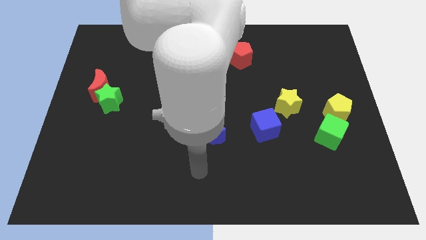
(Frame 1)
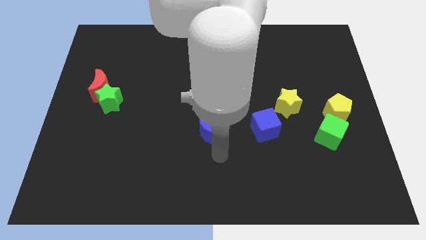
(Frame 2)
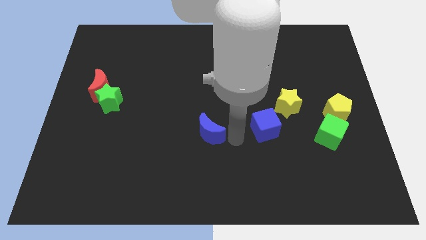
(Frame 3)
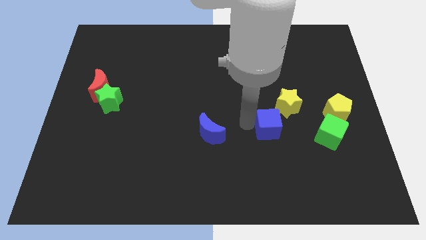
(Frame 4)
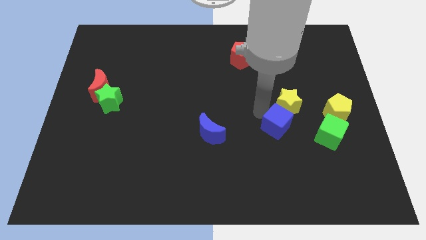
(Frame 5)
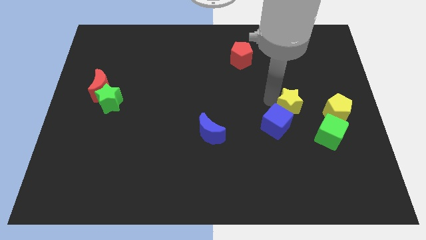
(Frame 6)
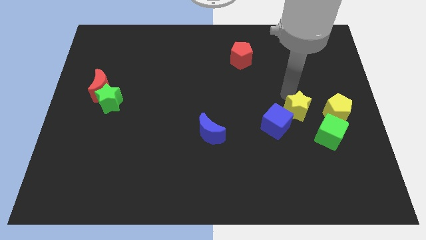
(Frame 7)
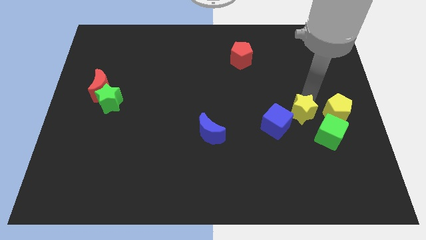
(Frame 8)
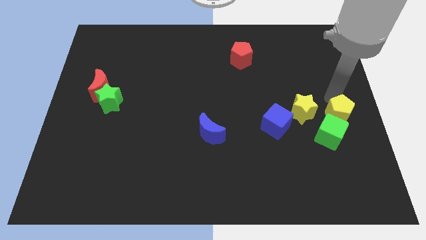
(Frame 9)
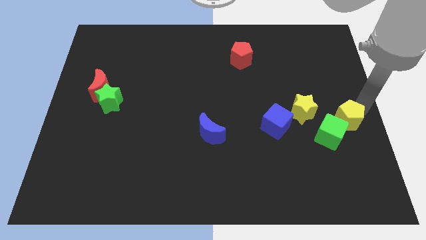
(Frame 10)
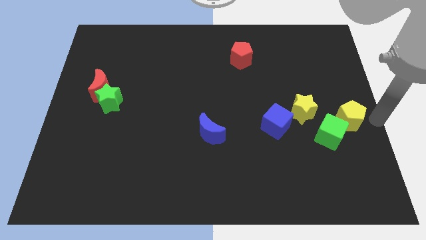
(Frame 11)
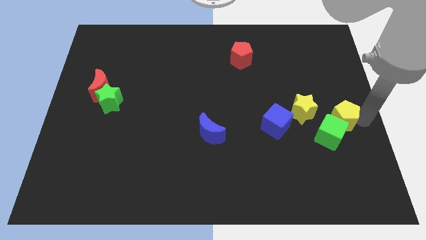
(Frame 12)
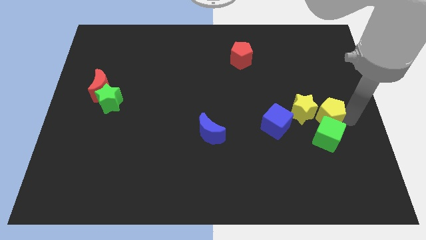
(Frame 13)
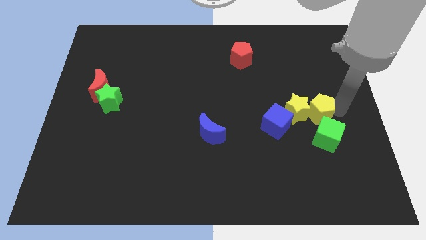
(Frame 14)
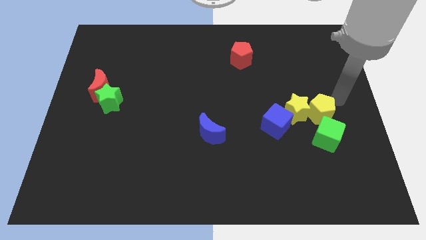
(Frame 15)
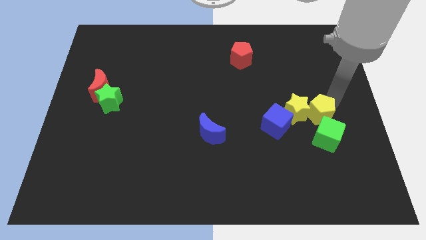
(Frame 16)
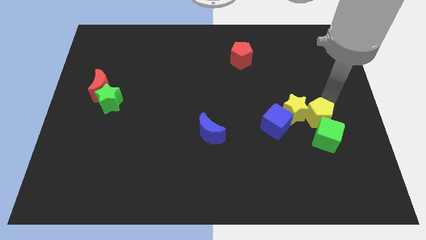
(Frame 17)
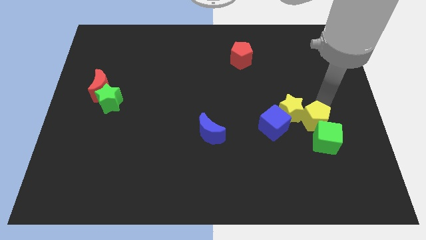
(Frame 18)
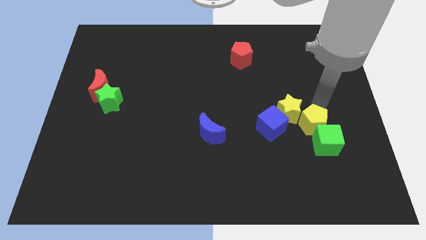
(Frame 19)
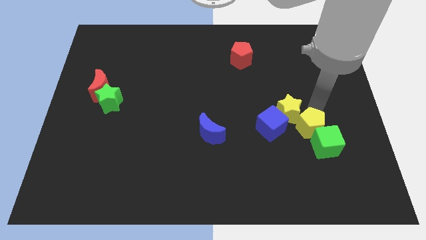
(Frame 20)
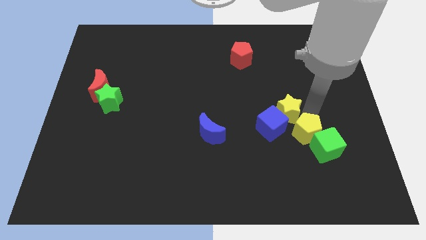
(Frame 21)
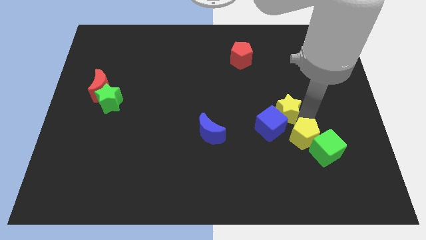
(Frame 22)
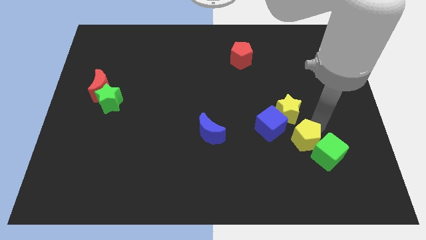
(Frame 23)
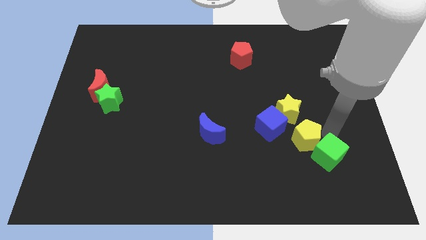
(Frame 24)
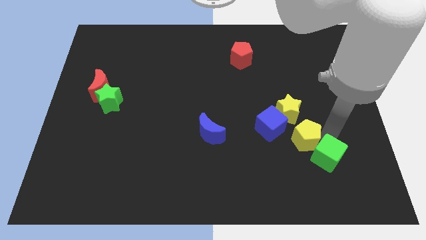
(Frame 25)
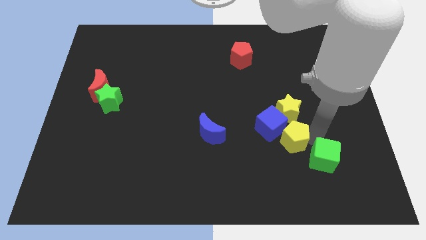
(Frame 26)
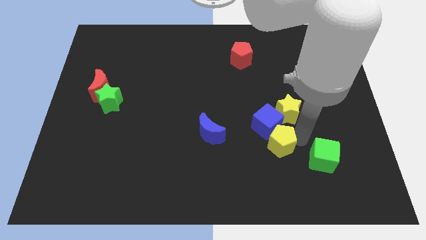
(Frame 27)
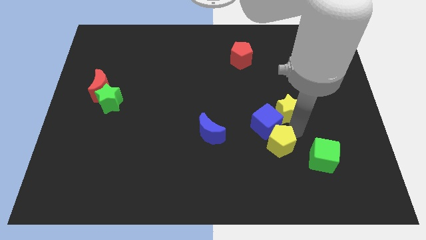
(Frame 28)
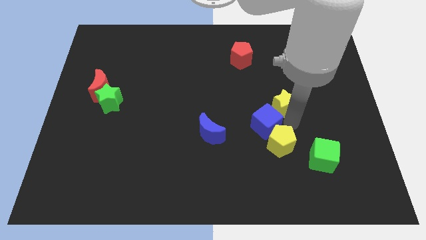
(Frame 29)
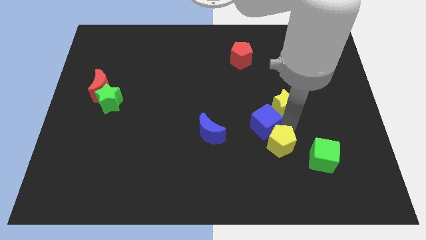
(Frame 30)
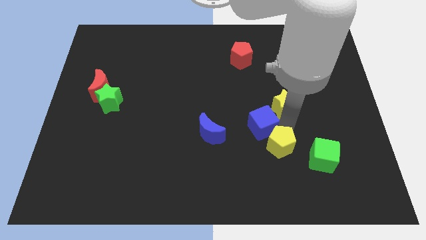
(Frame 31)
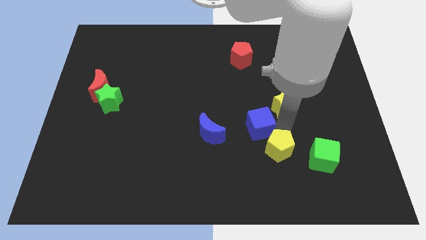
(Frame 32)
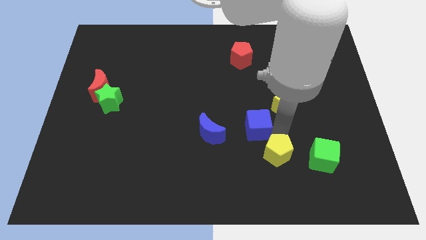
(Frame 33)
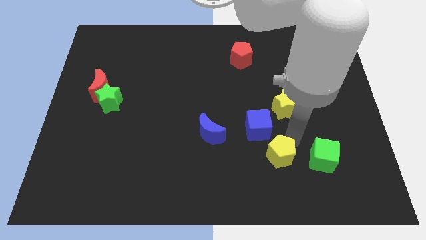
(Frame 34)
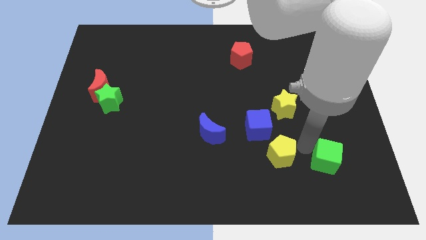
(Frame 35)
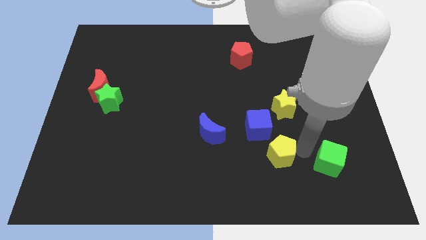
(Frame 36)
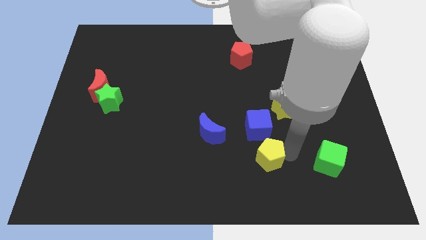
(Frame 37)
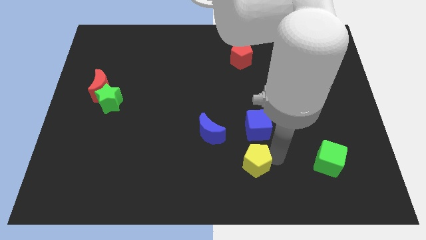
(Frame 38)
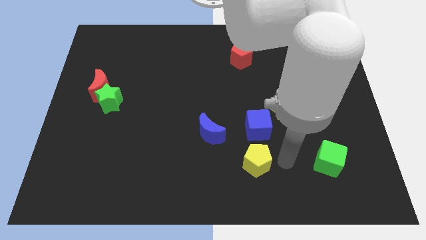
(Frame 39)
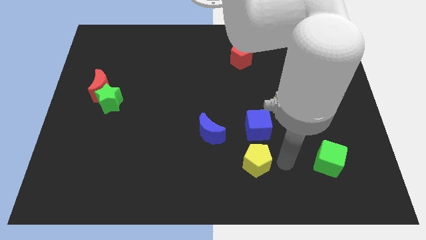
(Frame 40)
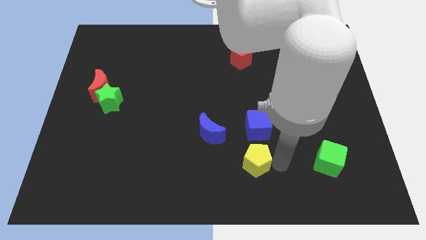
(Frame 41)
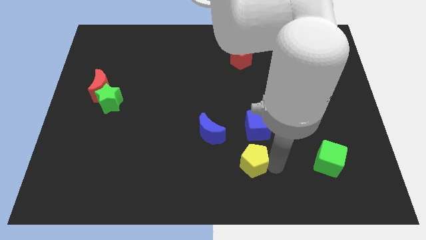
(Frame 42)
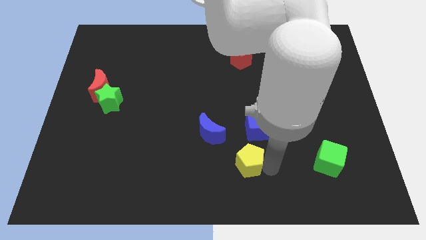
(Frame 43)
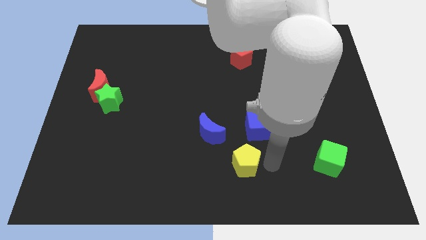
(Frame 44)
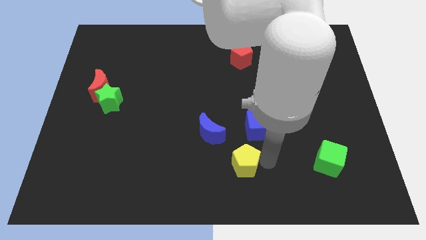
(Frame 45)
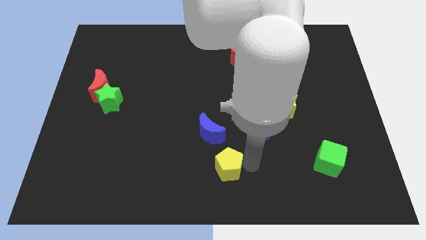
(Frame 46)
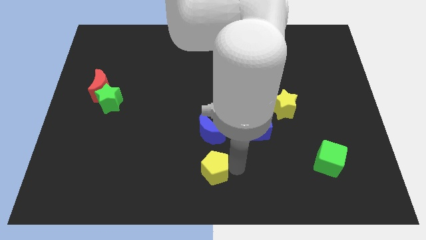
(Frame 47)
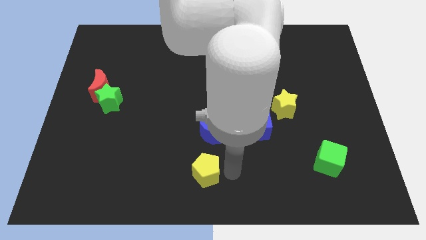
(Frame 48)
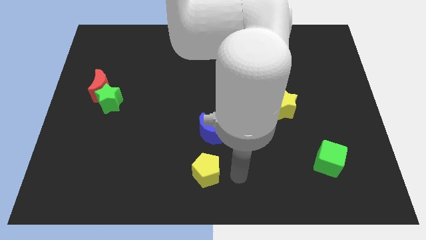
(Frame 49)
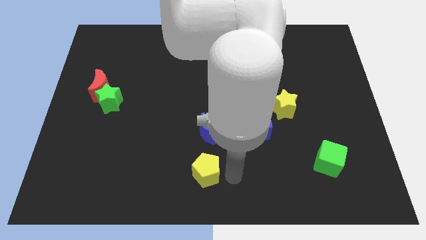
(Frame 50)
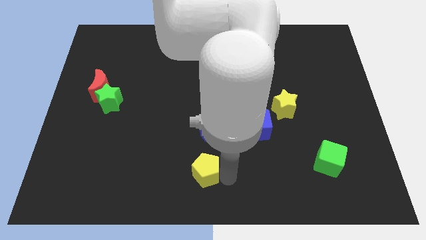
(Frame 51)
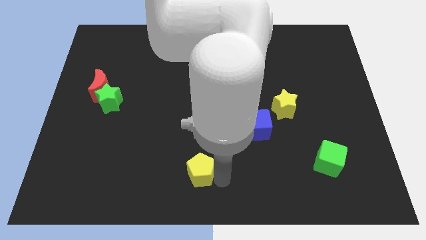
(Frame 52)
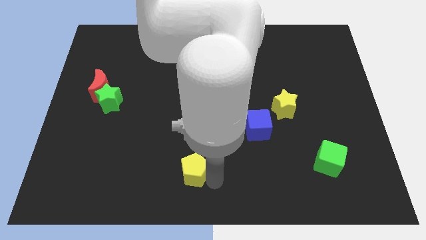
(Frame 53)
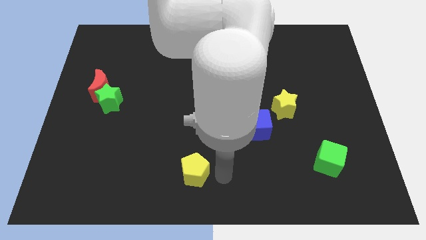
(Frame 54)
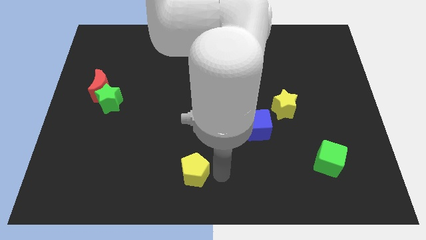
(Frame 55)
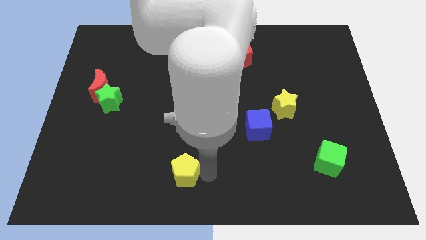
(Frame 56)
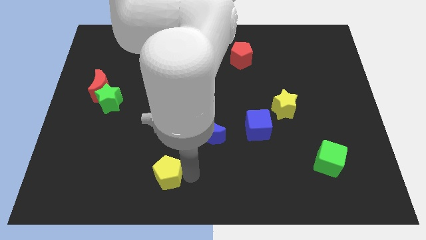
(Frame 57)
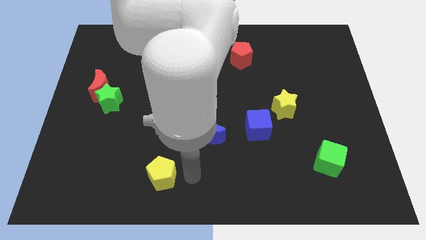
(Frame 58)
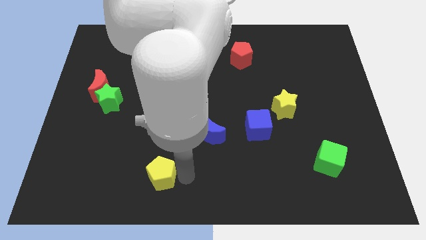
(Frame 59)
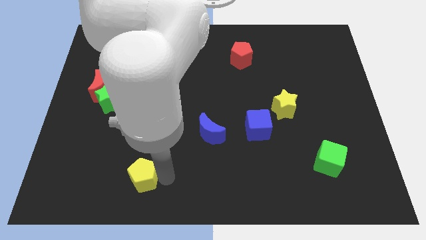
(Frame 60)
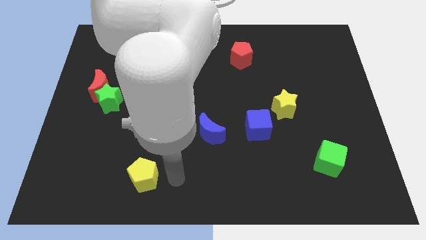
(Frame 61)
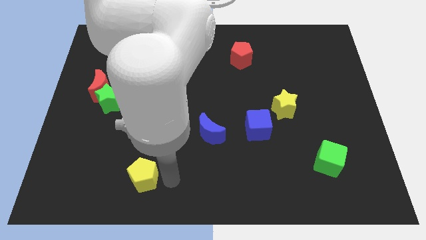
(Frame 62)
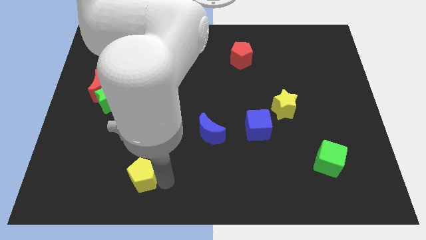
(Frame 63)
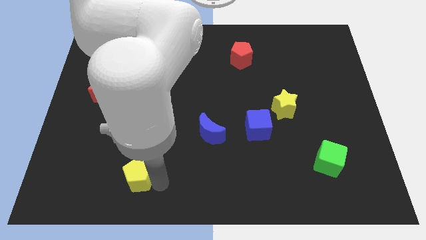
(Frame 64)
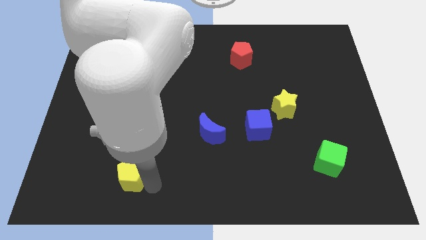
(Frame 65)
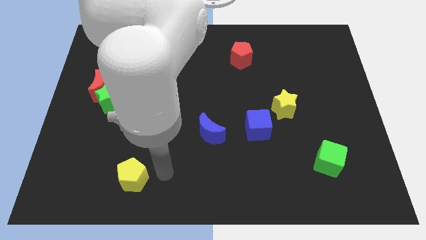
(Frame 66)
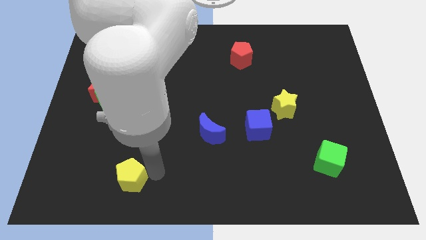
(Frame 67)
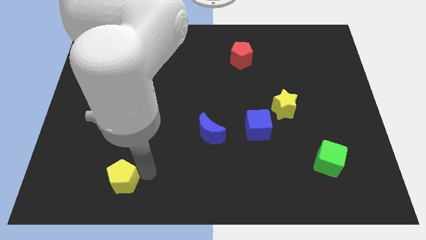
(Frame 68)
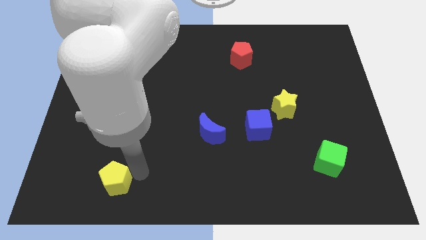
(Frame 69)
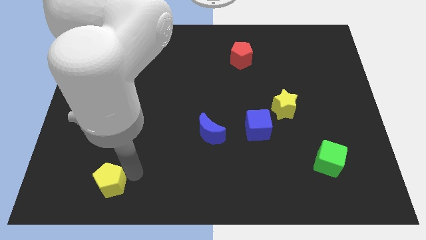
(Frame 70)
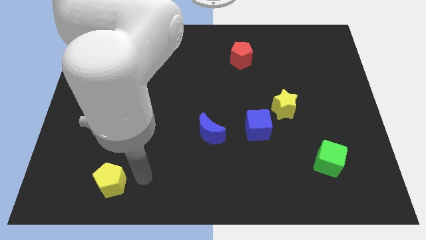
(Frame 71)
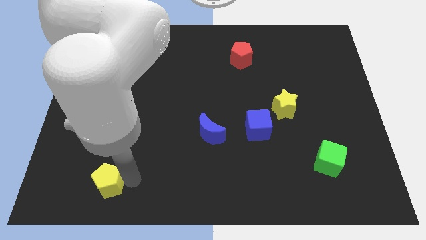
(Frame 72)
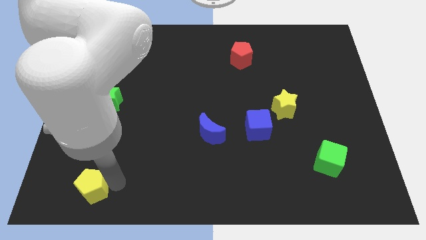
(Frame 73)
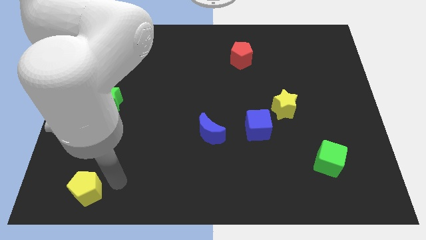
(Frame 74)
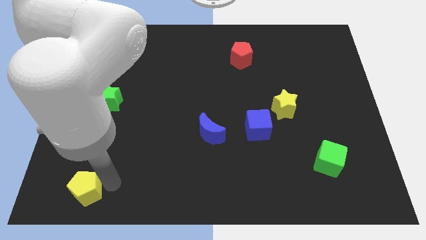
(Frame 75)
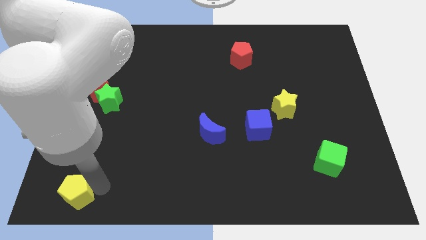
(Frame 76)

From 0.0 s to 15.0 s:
push the yellow pentagon to the lower left corner
